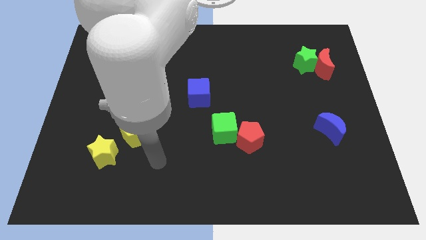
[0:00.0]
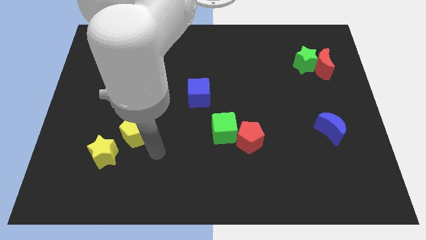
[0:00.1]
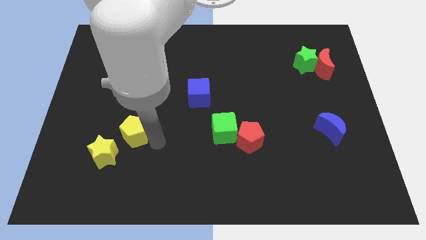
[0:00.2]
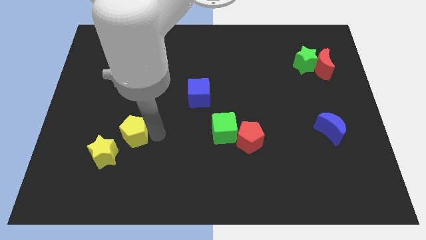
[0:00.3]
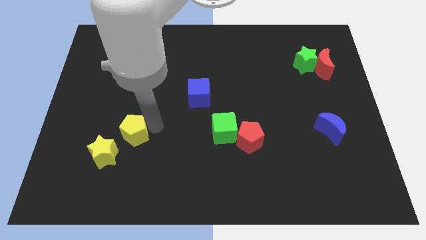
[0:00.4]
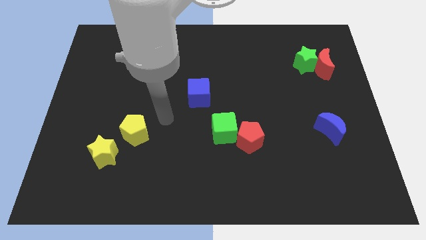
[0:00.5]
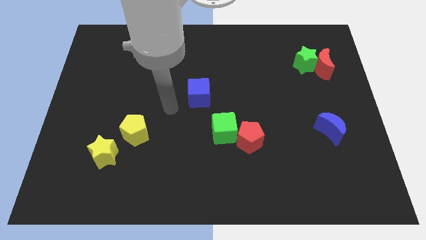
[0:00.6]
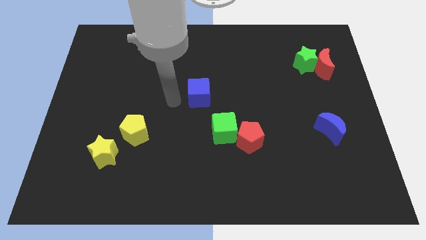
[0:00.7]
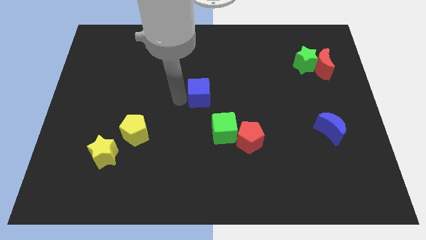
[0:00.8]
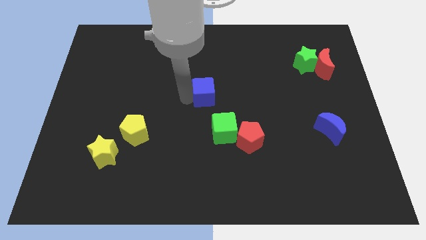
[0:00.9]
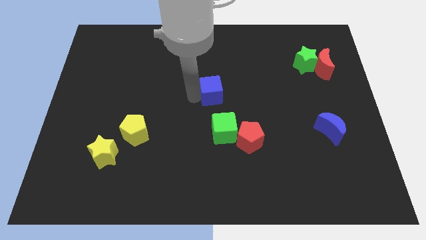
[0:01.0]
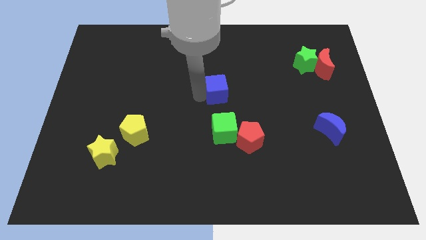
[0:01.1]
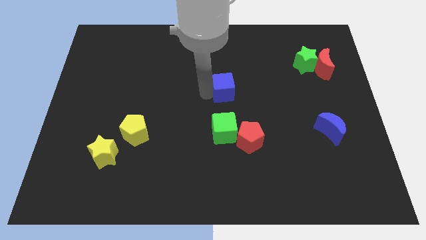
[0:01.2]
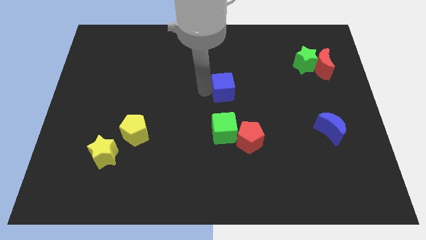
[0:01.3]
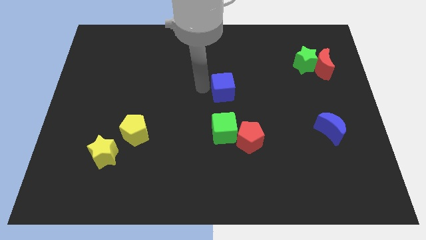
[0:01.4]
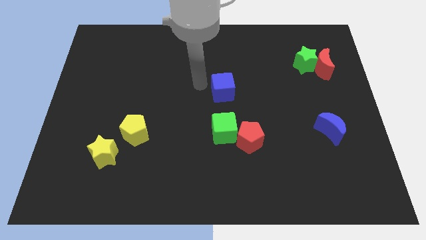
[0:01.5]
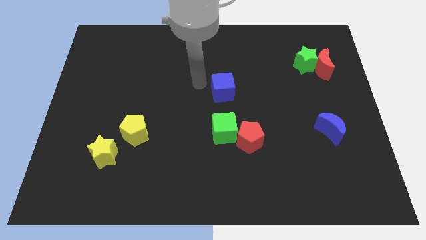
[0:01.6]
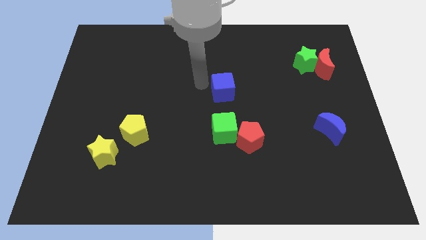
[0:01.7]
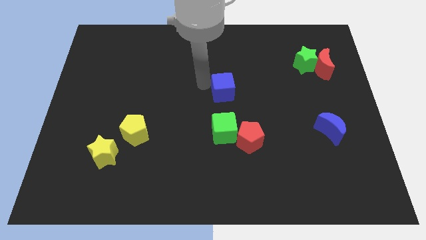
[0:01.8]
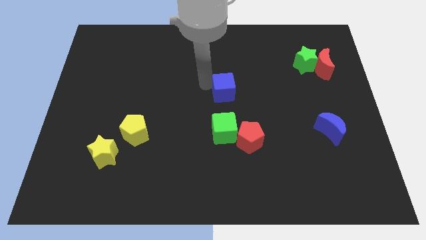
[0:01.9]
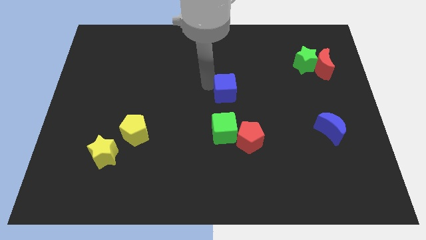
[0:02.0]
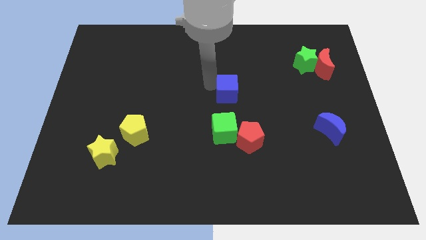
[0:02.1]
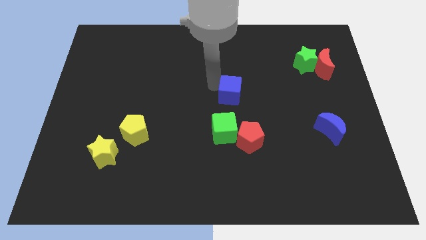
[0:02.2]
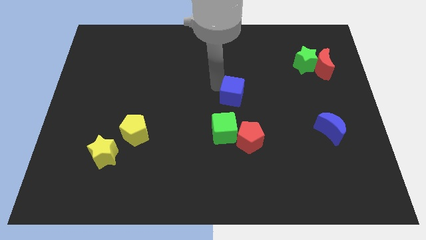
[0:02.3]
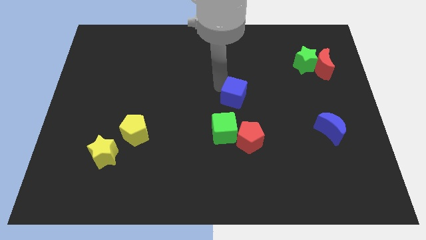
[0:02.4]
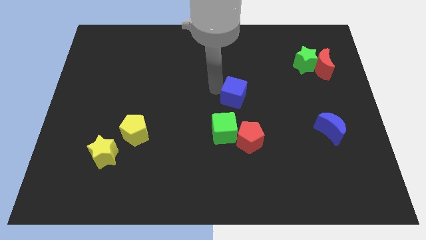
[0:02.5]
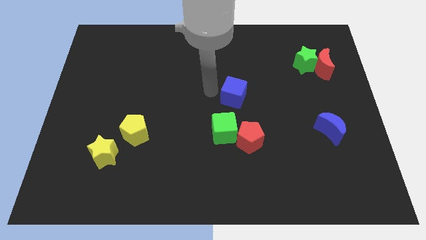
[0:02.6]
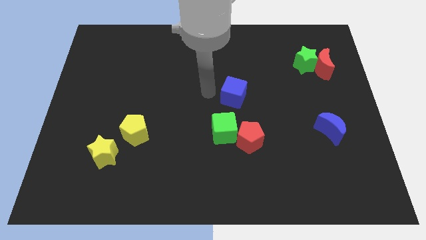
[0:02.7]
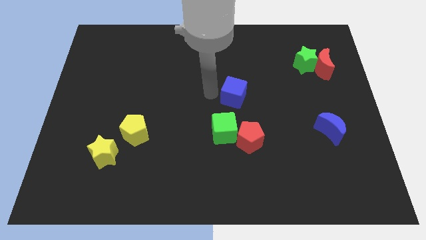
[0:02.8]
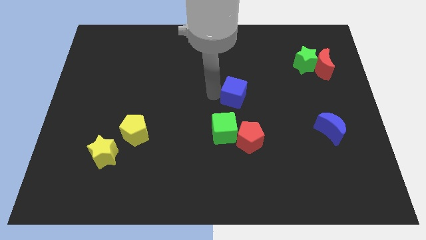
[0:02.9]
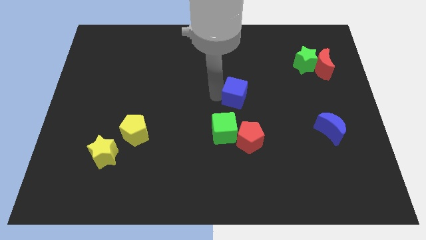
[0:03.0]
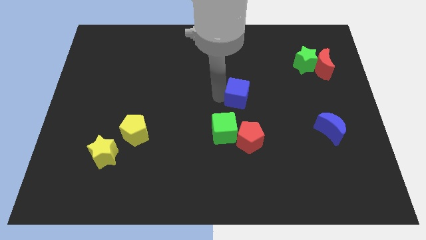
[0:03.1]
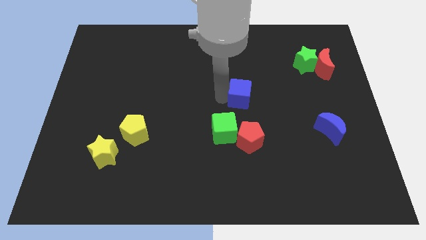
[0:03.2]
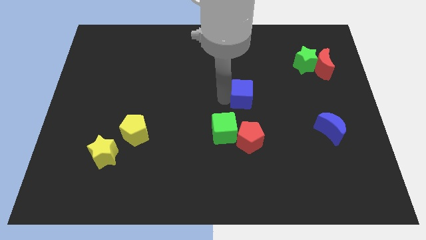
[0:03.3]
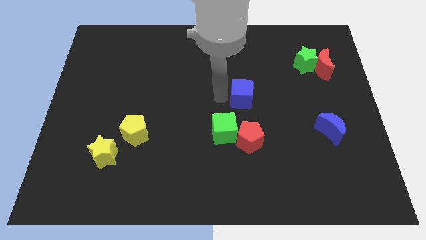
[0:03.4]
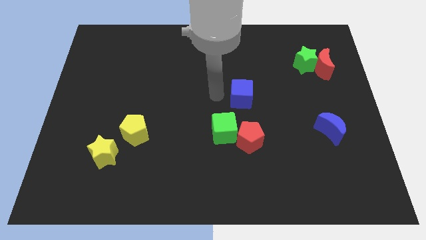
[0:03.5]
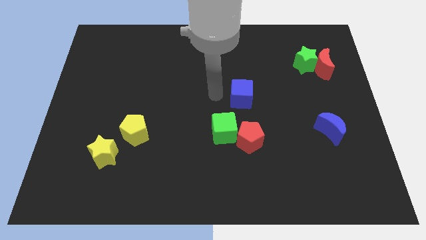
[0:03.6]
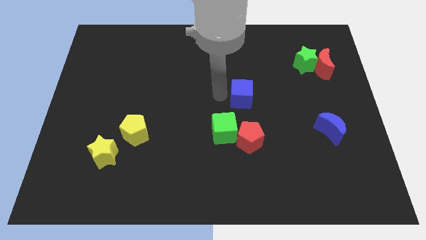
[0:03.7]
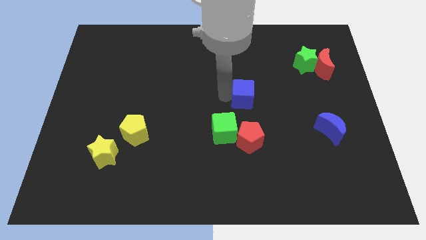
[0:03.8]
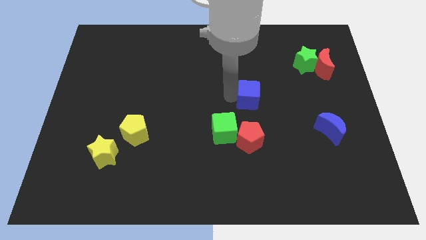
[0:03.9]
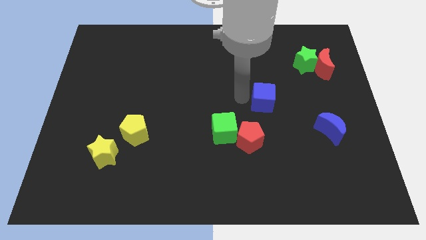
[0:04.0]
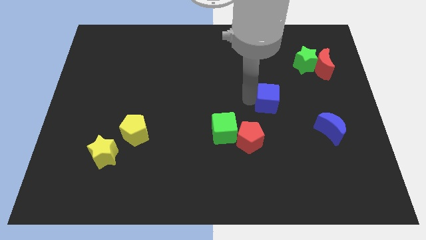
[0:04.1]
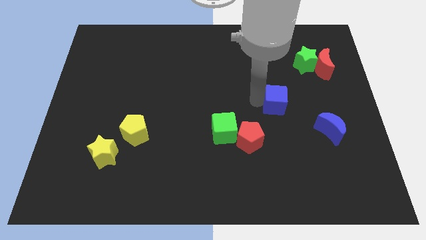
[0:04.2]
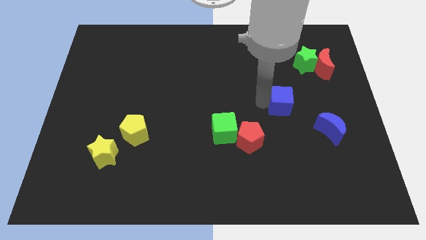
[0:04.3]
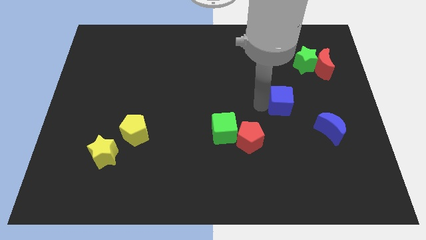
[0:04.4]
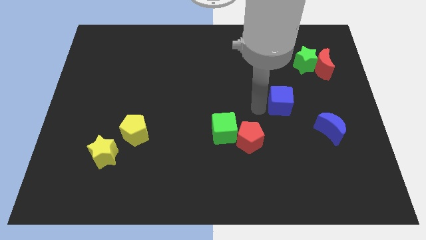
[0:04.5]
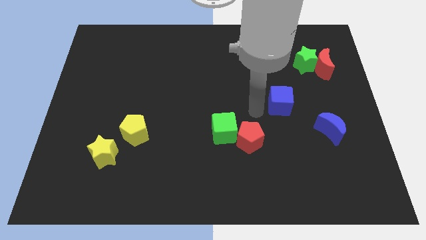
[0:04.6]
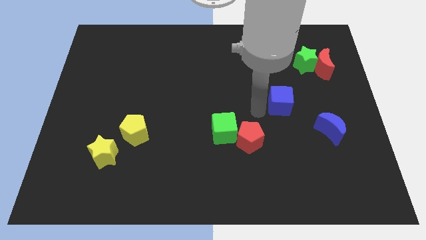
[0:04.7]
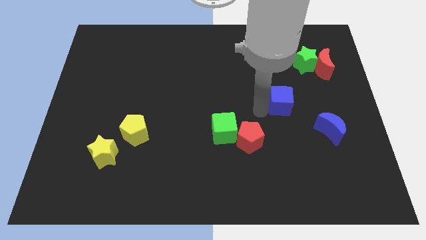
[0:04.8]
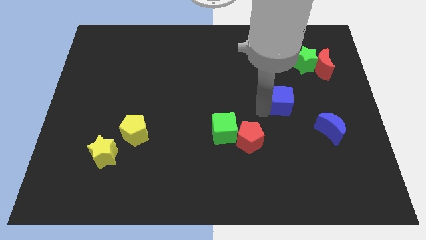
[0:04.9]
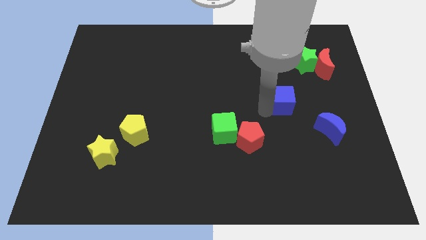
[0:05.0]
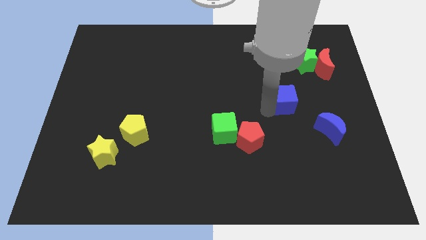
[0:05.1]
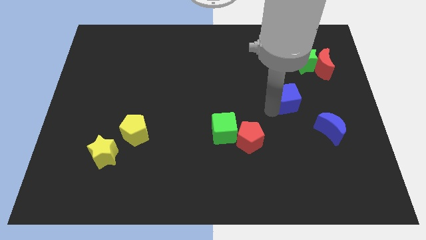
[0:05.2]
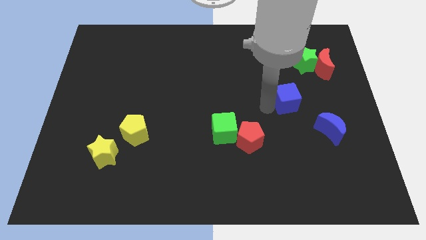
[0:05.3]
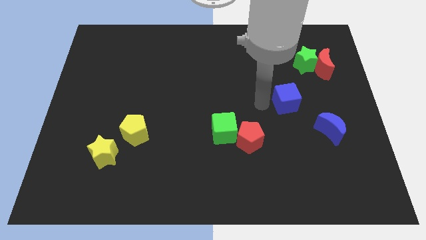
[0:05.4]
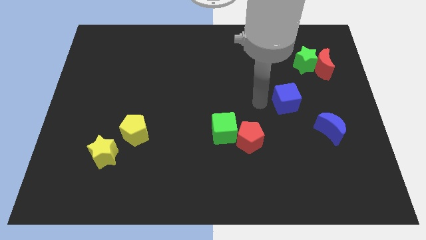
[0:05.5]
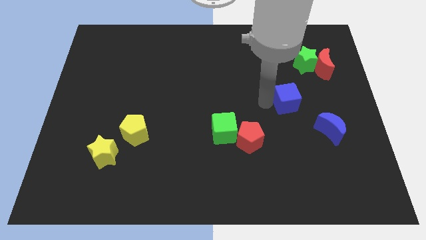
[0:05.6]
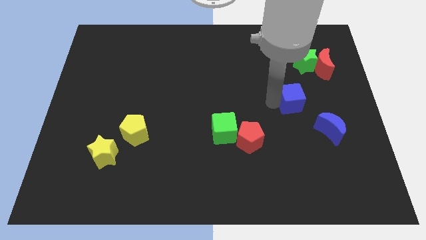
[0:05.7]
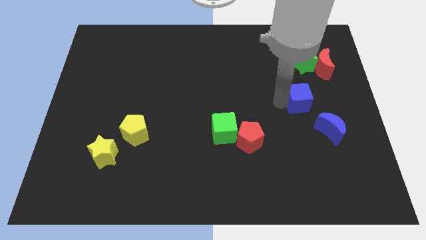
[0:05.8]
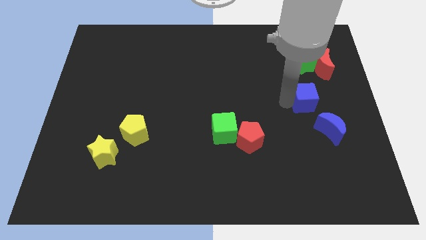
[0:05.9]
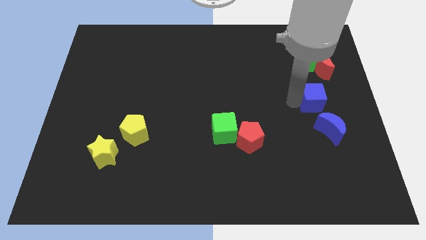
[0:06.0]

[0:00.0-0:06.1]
slide the blue cube to the bottom of the red moon

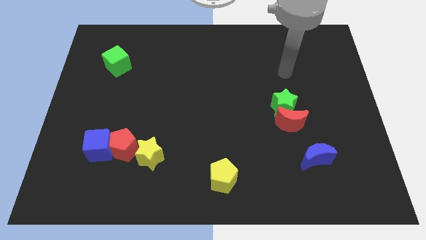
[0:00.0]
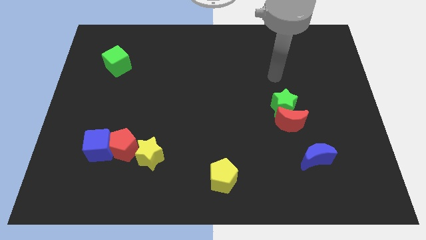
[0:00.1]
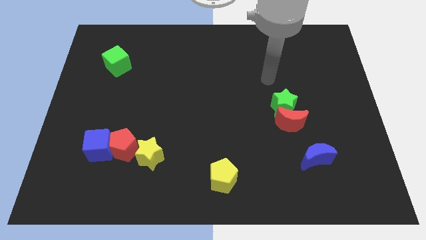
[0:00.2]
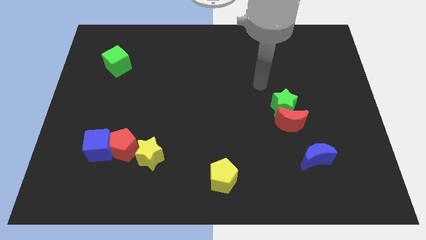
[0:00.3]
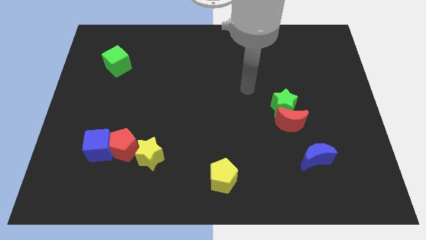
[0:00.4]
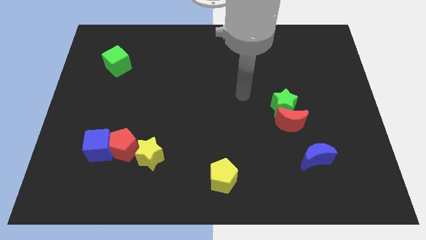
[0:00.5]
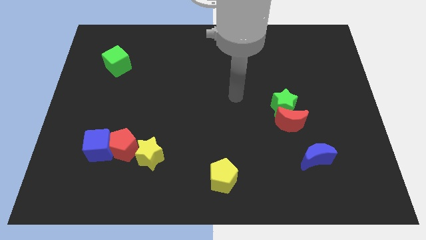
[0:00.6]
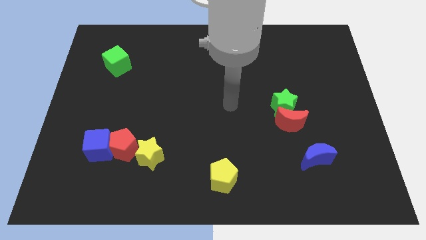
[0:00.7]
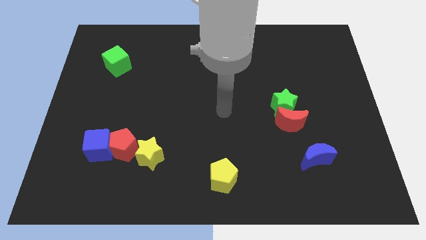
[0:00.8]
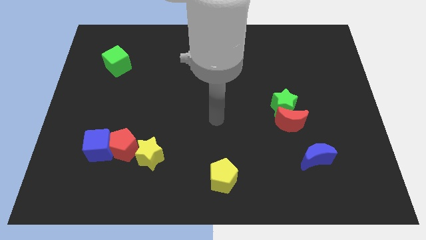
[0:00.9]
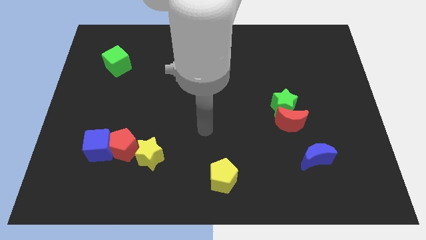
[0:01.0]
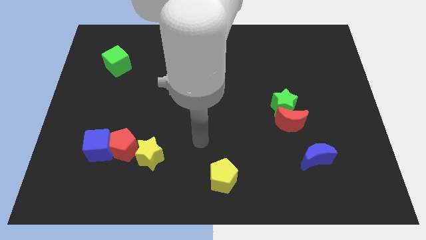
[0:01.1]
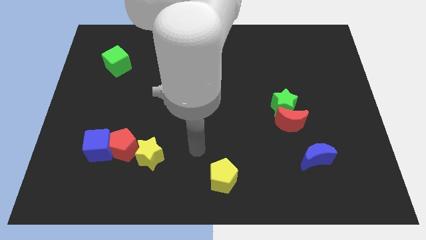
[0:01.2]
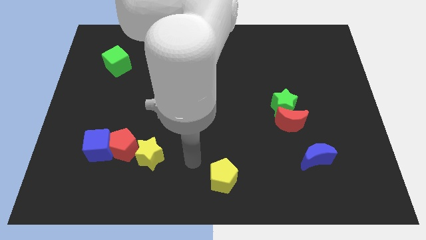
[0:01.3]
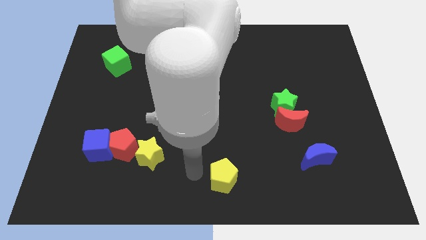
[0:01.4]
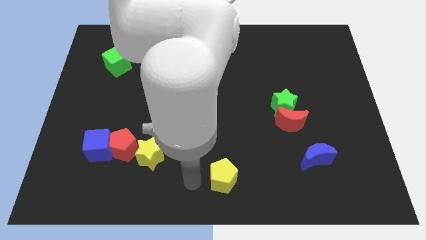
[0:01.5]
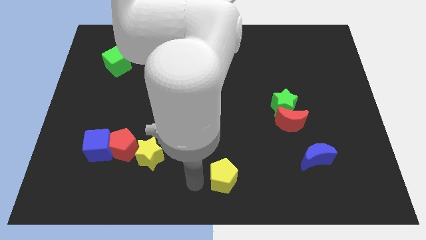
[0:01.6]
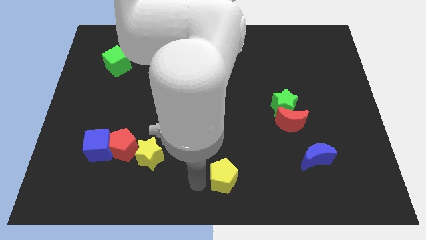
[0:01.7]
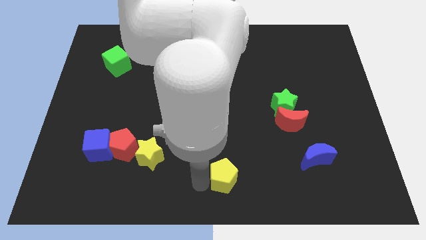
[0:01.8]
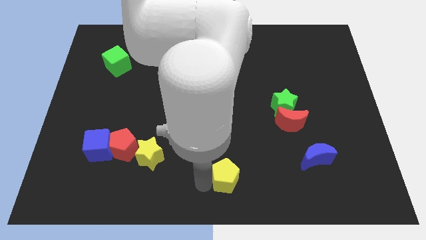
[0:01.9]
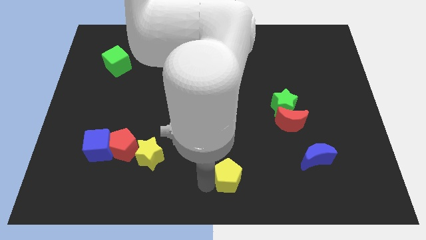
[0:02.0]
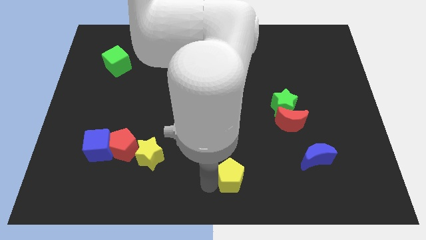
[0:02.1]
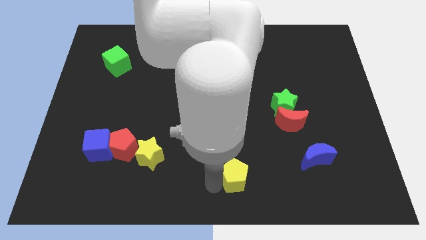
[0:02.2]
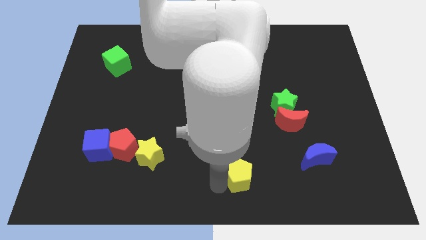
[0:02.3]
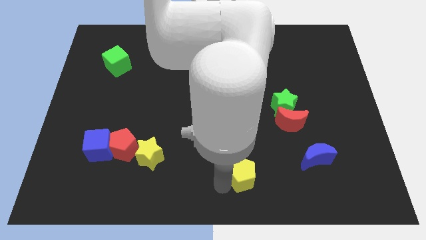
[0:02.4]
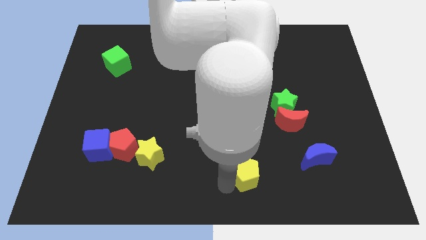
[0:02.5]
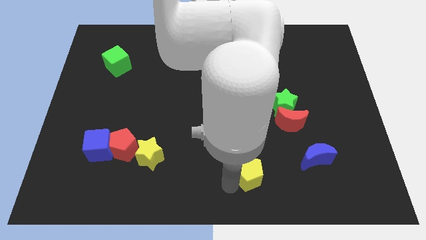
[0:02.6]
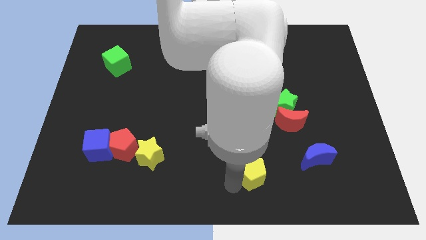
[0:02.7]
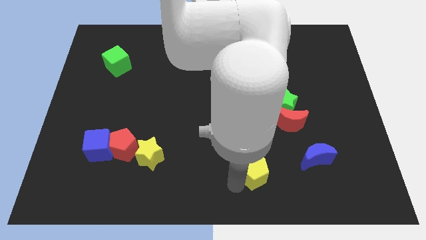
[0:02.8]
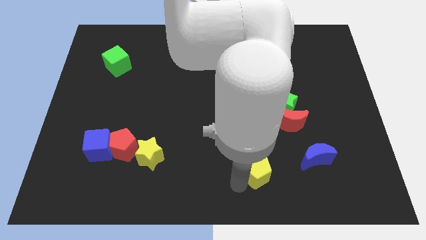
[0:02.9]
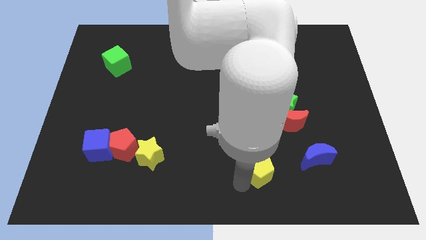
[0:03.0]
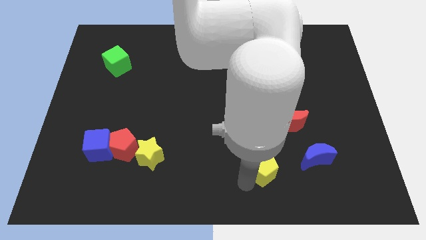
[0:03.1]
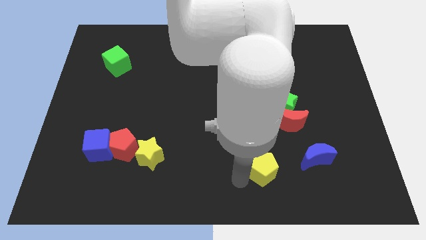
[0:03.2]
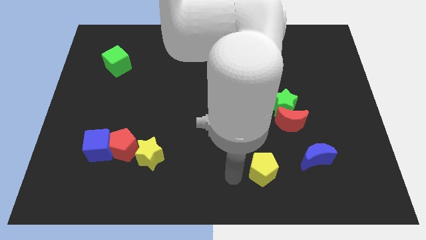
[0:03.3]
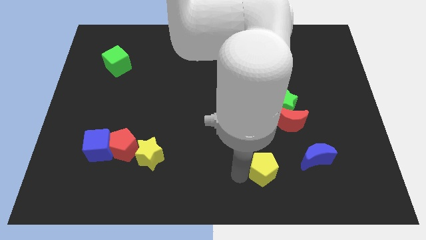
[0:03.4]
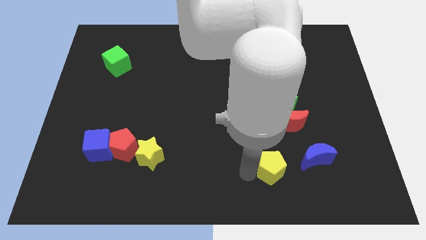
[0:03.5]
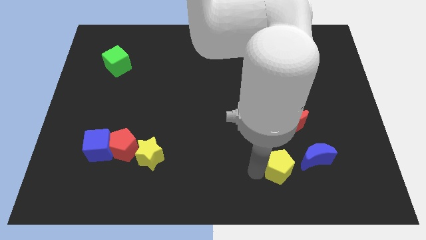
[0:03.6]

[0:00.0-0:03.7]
slide the yellow pentagon below the red moon
